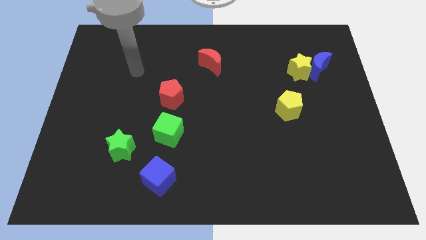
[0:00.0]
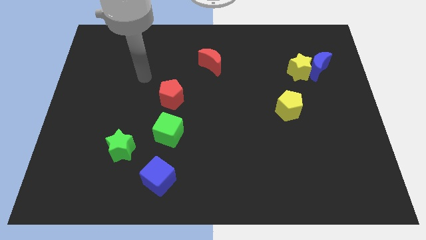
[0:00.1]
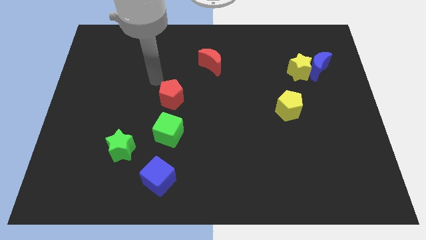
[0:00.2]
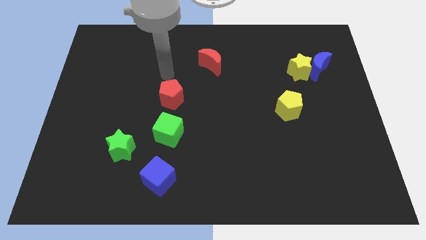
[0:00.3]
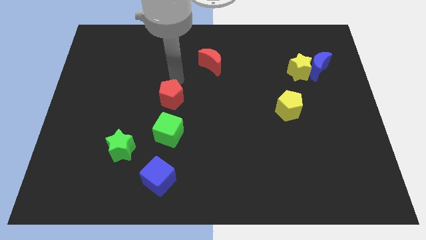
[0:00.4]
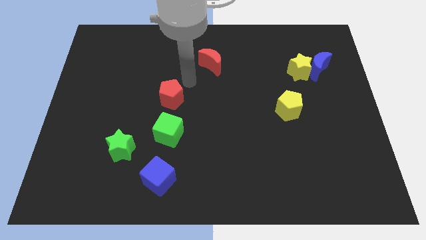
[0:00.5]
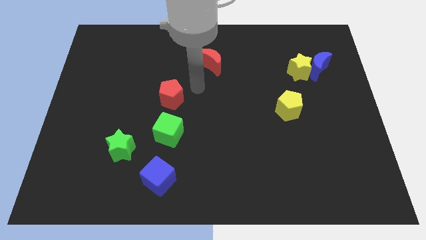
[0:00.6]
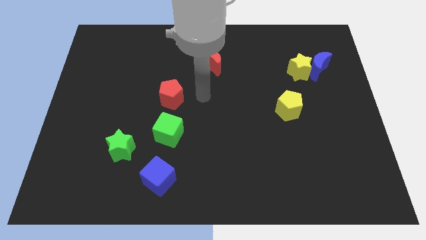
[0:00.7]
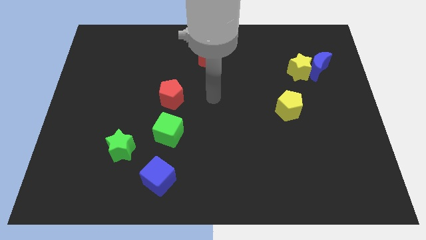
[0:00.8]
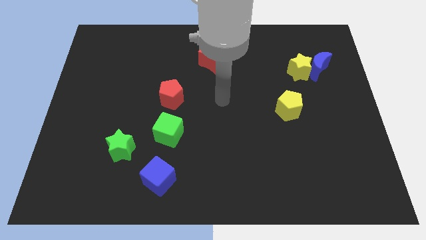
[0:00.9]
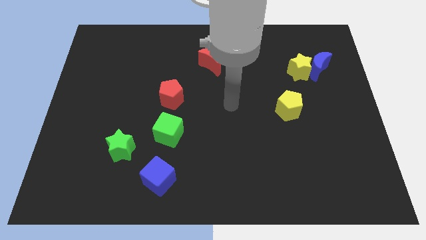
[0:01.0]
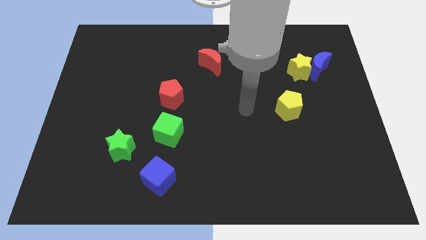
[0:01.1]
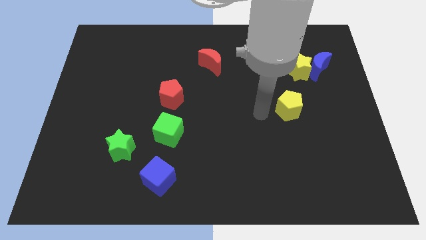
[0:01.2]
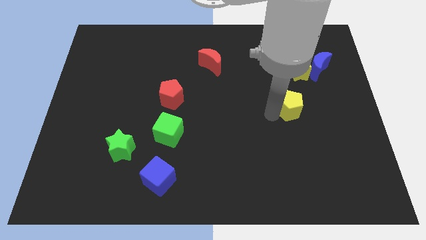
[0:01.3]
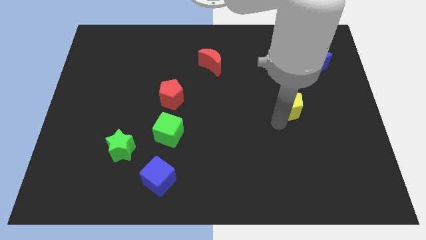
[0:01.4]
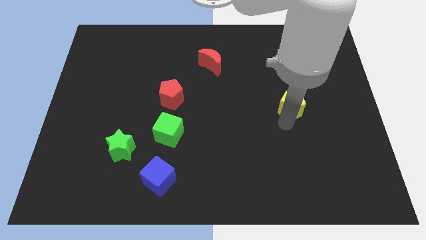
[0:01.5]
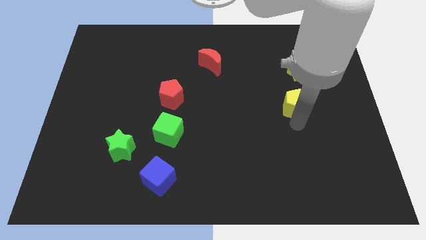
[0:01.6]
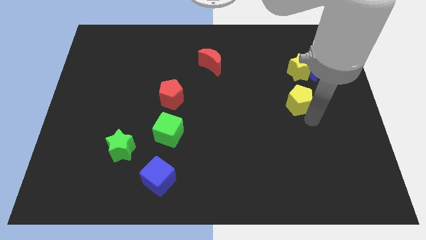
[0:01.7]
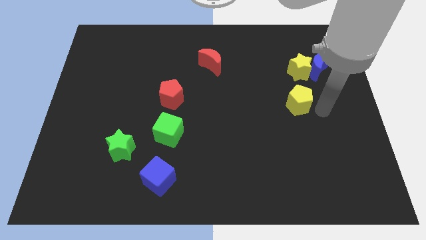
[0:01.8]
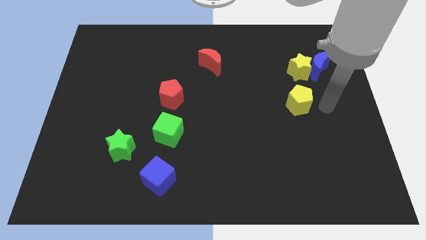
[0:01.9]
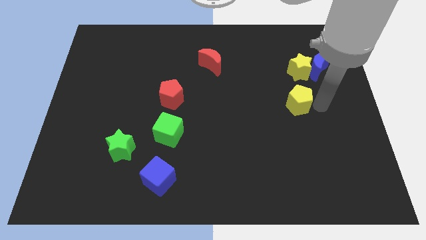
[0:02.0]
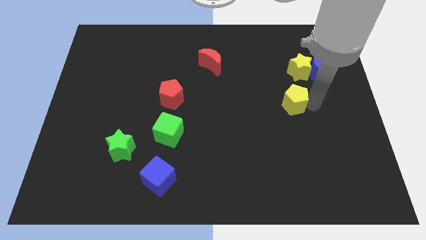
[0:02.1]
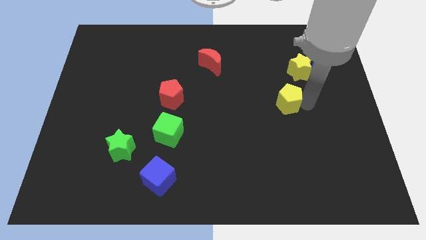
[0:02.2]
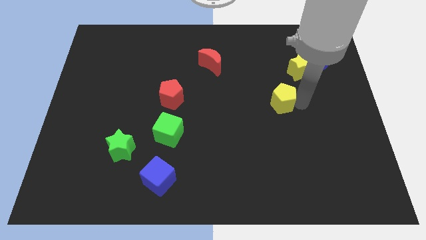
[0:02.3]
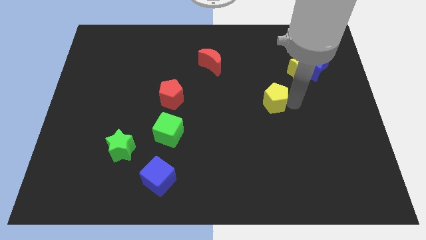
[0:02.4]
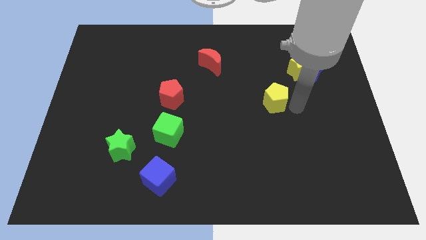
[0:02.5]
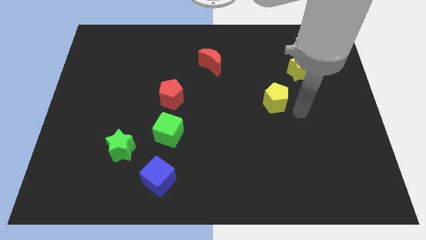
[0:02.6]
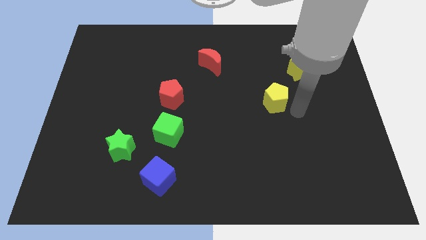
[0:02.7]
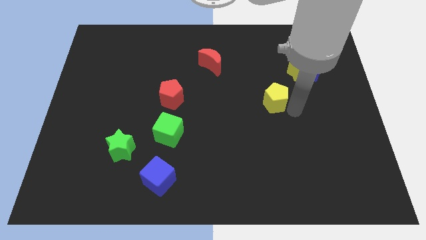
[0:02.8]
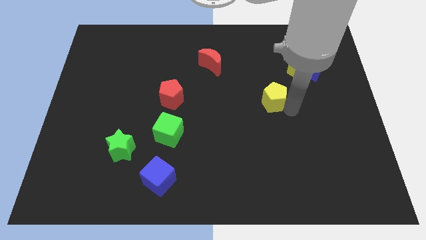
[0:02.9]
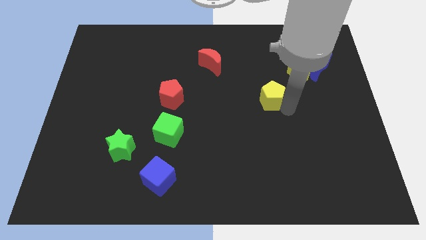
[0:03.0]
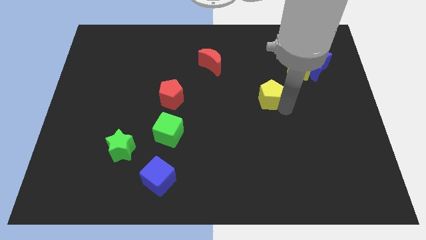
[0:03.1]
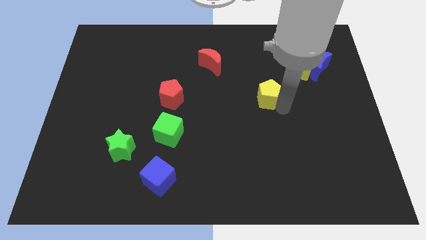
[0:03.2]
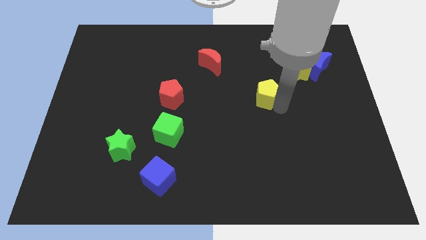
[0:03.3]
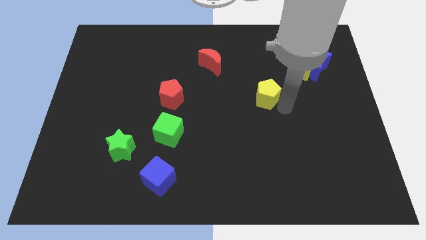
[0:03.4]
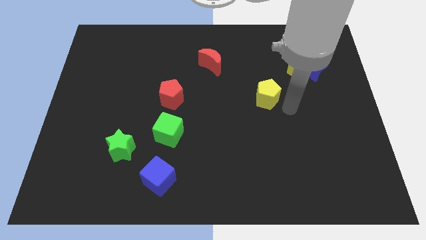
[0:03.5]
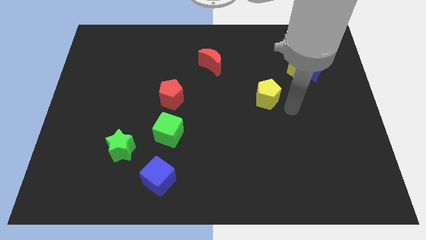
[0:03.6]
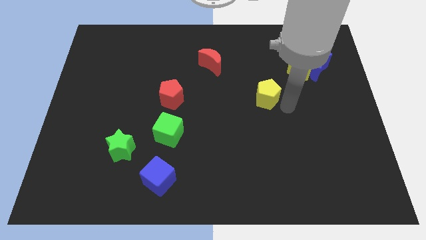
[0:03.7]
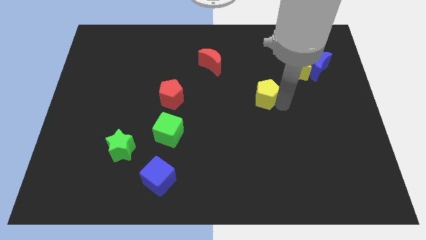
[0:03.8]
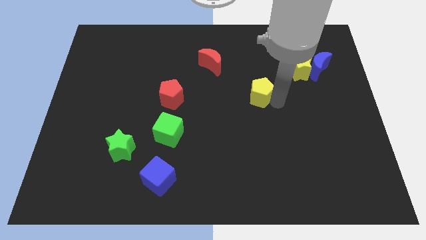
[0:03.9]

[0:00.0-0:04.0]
move the yellow pentagon upwards and then to the left a bit

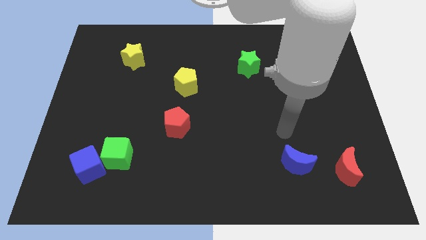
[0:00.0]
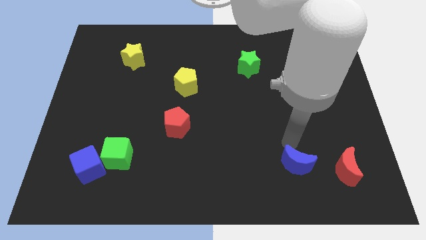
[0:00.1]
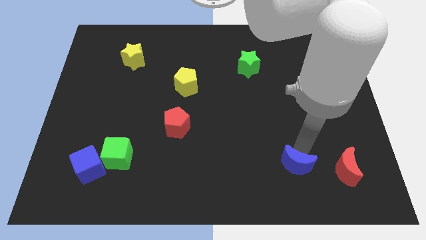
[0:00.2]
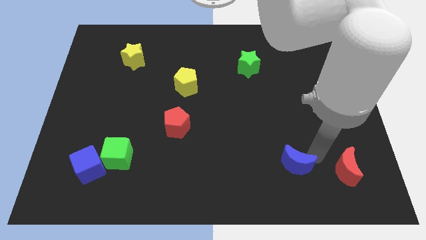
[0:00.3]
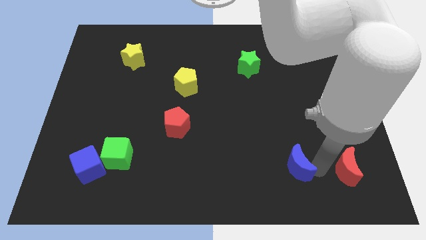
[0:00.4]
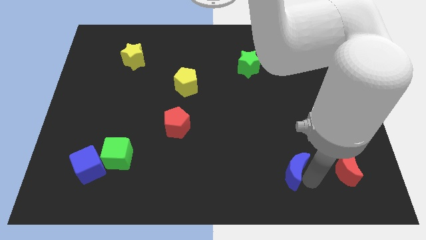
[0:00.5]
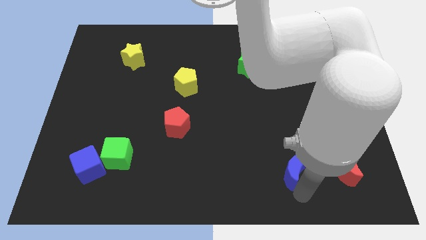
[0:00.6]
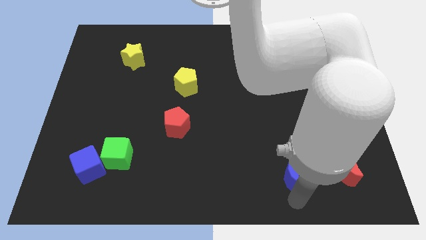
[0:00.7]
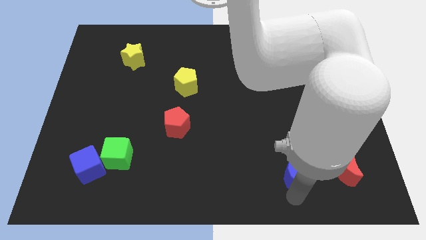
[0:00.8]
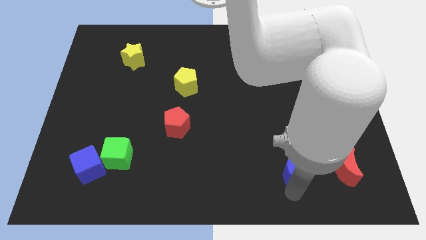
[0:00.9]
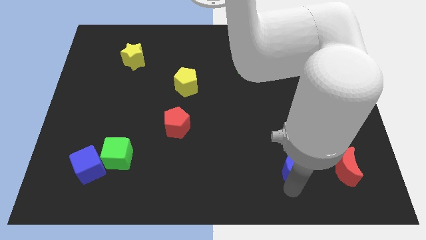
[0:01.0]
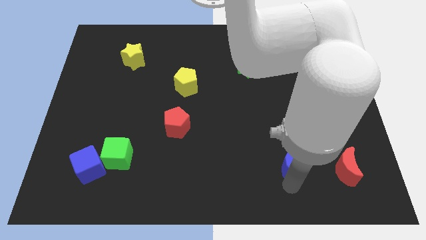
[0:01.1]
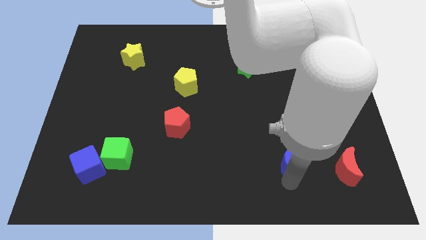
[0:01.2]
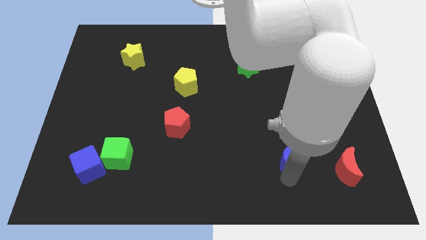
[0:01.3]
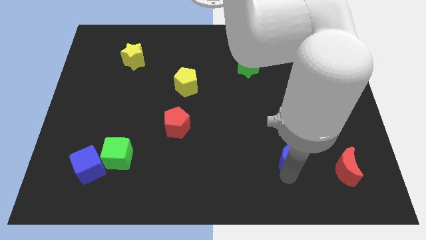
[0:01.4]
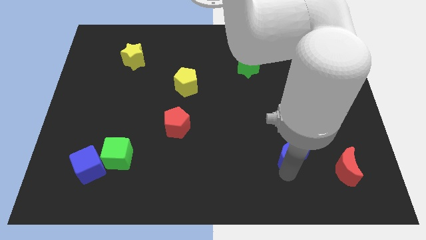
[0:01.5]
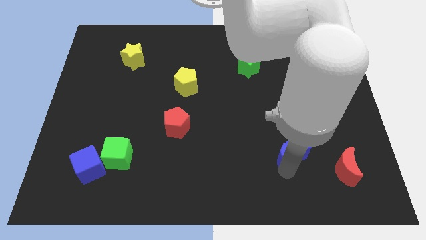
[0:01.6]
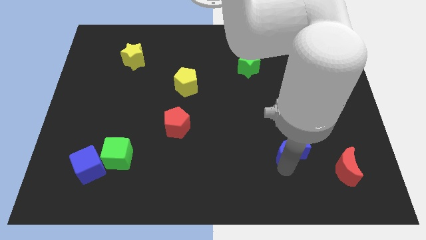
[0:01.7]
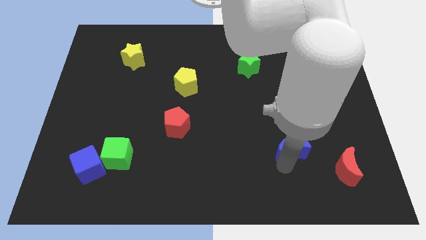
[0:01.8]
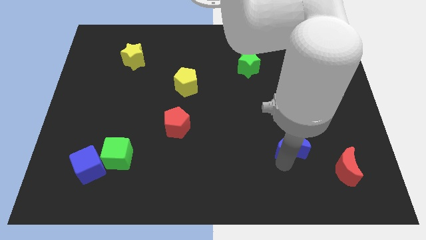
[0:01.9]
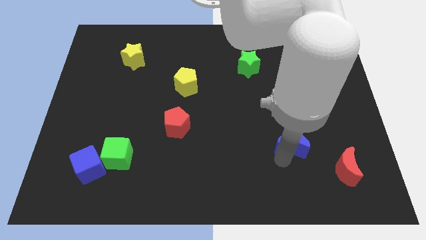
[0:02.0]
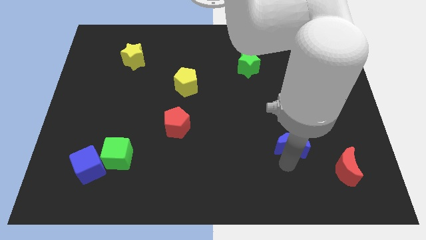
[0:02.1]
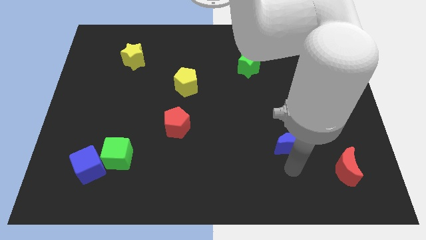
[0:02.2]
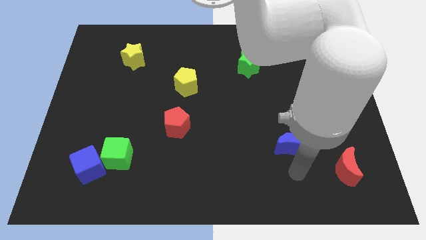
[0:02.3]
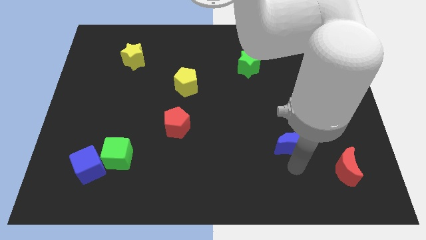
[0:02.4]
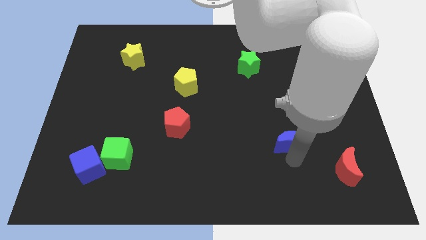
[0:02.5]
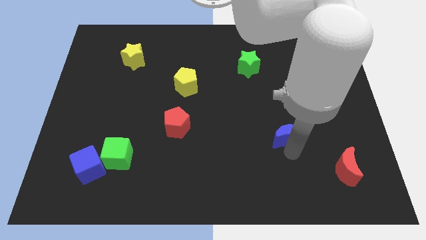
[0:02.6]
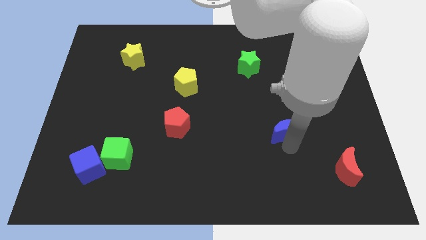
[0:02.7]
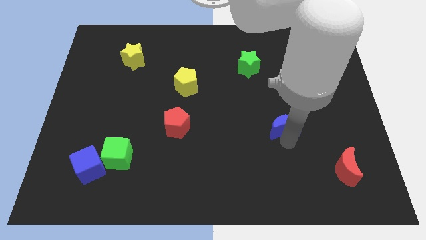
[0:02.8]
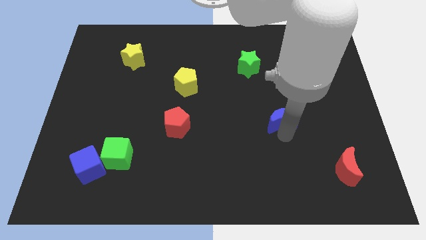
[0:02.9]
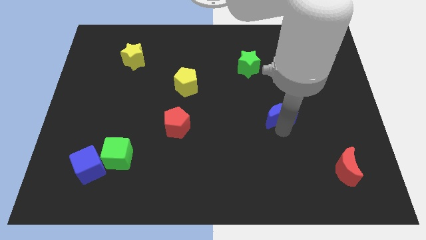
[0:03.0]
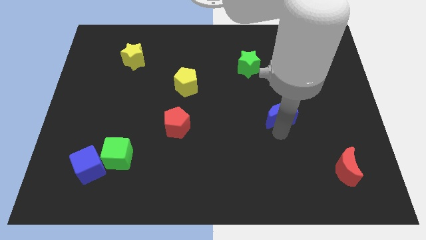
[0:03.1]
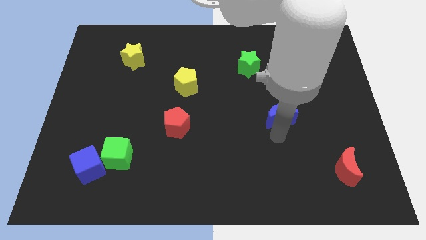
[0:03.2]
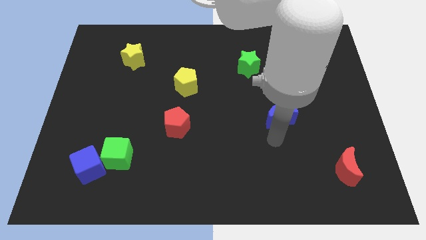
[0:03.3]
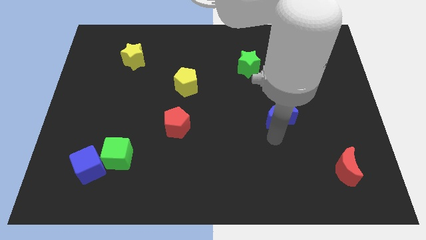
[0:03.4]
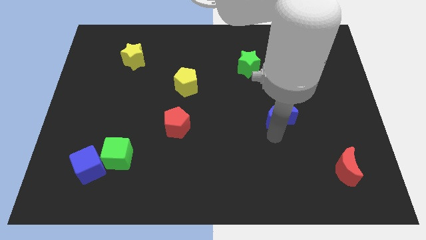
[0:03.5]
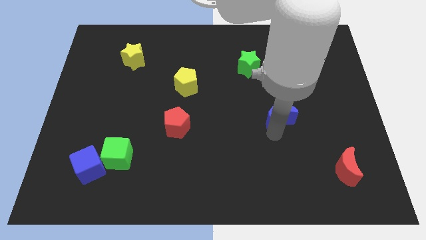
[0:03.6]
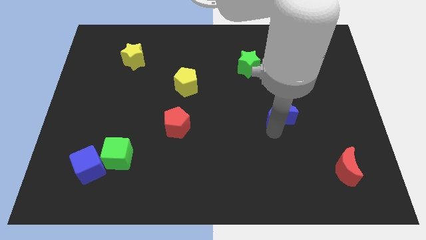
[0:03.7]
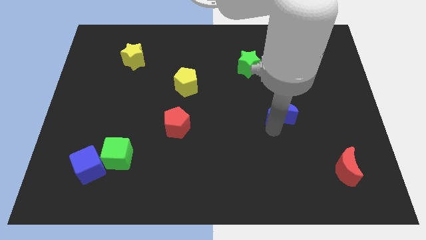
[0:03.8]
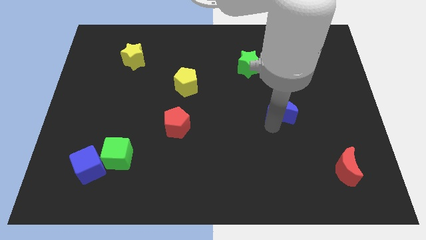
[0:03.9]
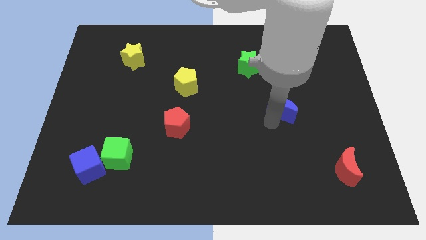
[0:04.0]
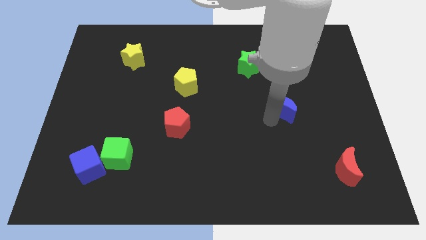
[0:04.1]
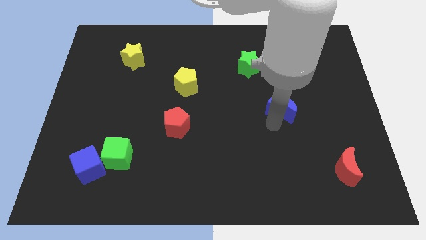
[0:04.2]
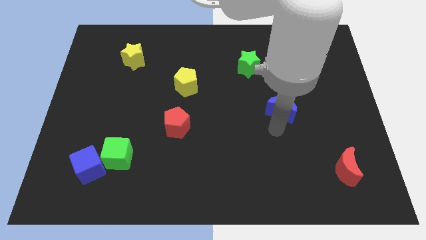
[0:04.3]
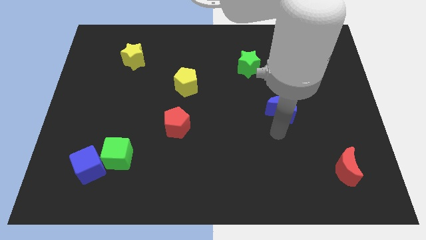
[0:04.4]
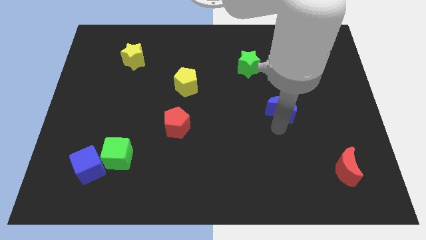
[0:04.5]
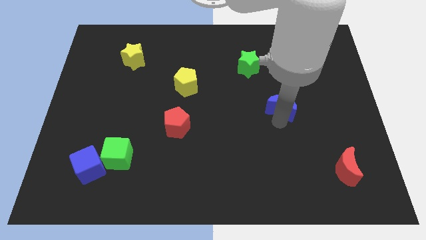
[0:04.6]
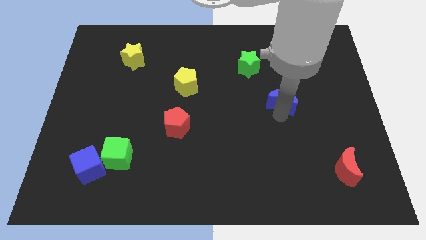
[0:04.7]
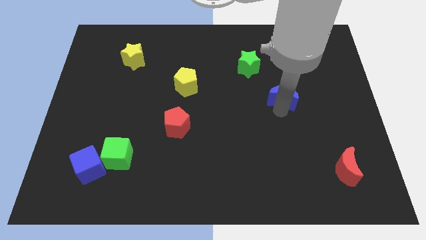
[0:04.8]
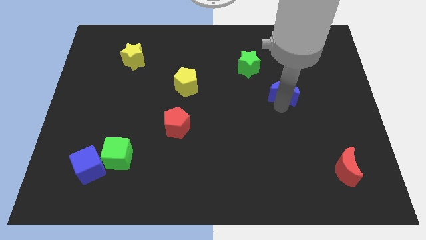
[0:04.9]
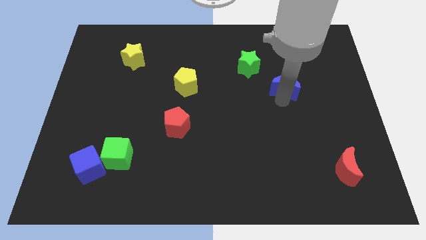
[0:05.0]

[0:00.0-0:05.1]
move the blue moon up
